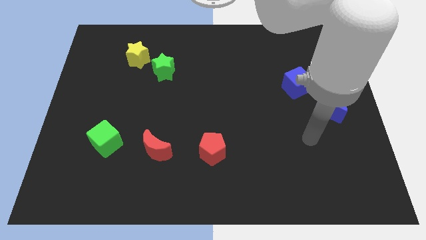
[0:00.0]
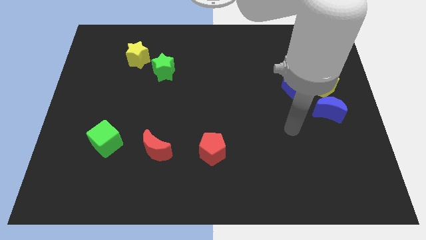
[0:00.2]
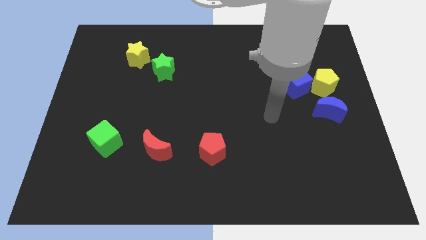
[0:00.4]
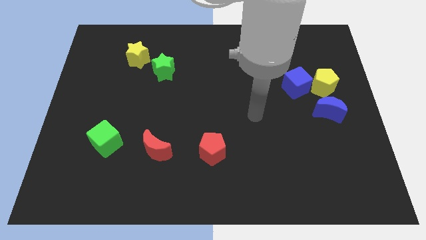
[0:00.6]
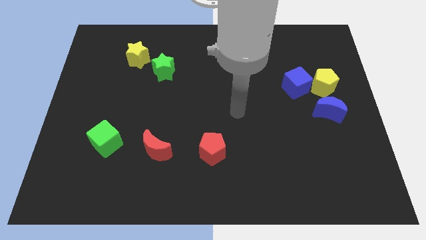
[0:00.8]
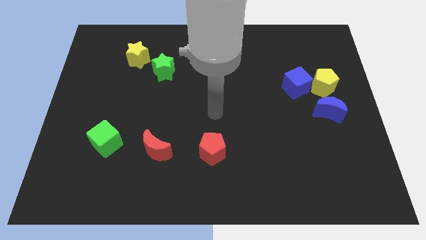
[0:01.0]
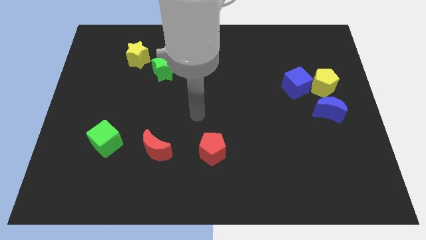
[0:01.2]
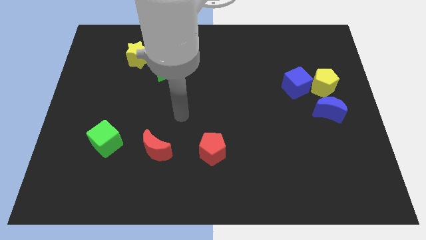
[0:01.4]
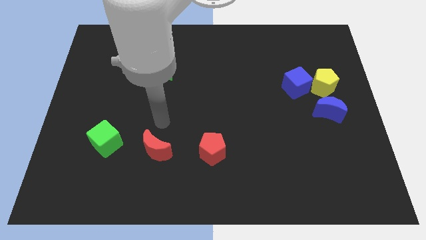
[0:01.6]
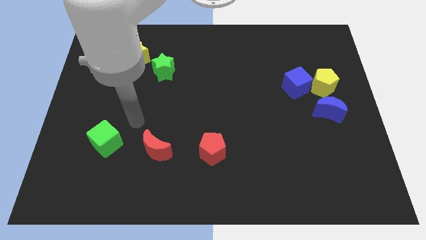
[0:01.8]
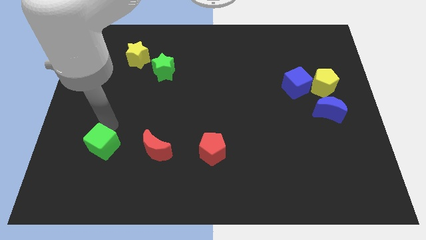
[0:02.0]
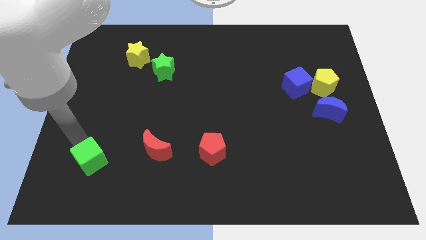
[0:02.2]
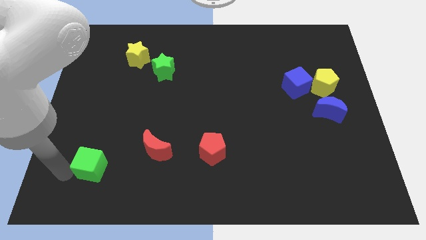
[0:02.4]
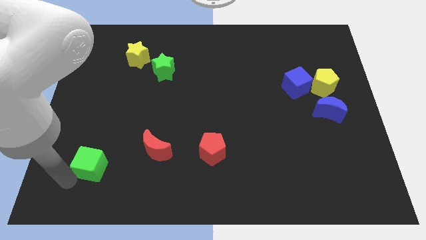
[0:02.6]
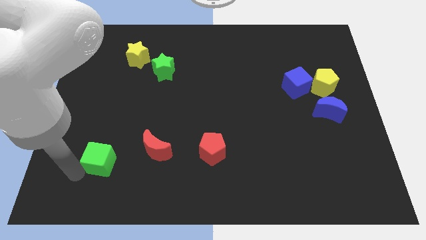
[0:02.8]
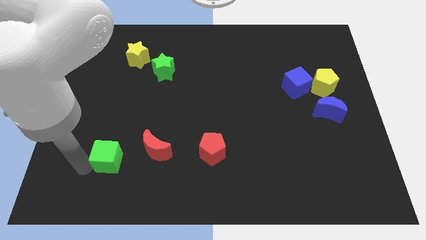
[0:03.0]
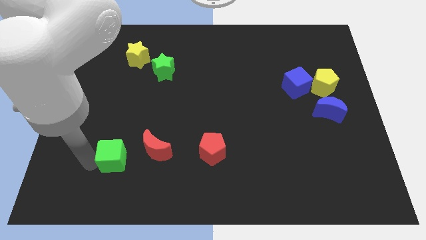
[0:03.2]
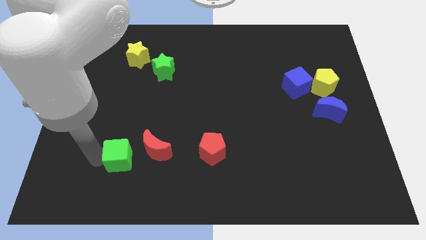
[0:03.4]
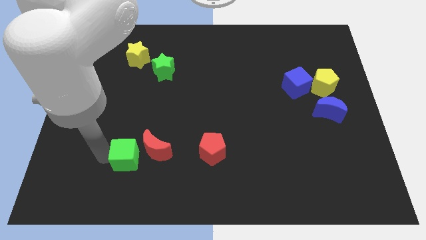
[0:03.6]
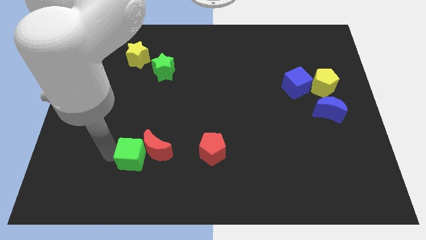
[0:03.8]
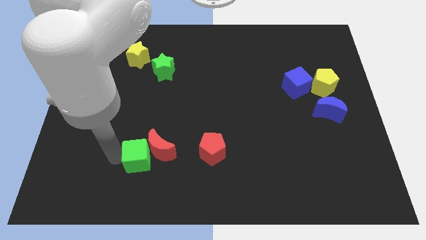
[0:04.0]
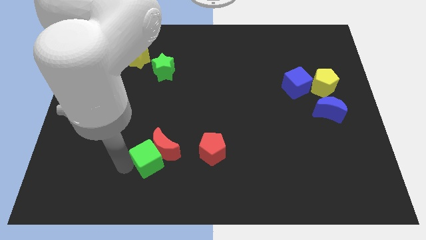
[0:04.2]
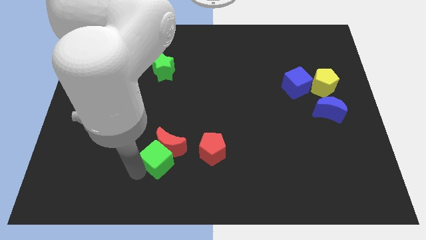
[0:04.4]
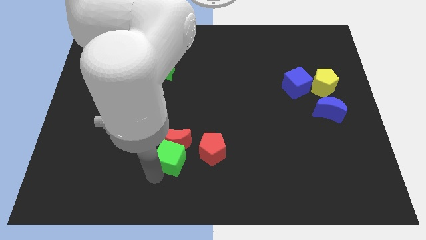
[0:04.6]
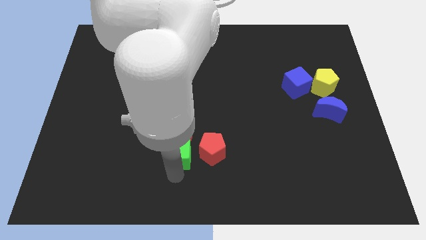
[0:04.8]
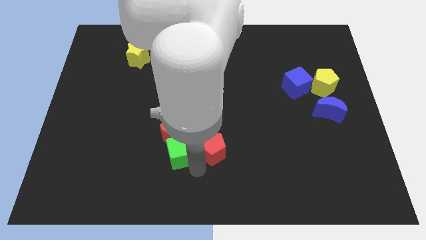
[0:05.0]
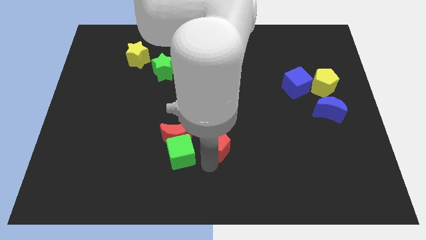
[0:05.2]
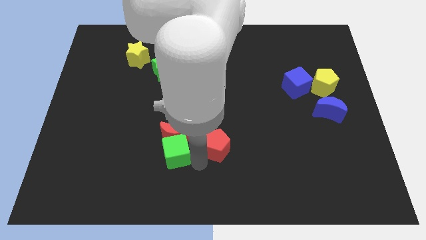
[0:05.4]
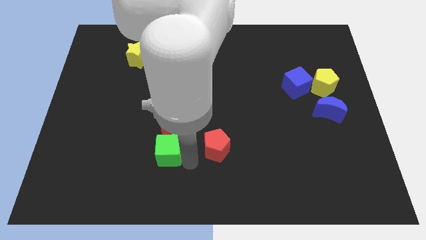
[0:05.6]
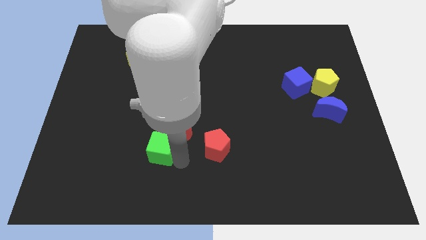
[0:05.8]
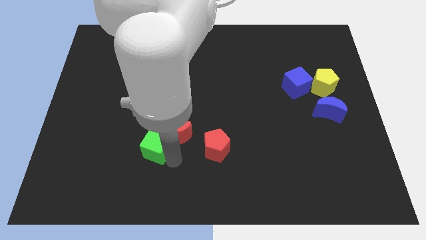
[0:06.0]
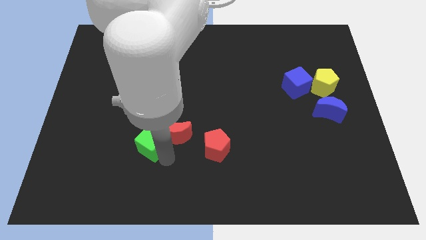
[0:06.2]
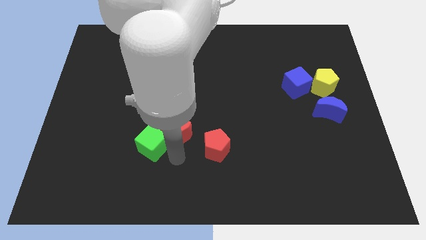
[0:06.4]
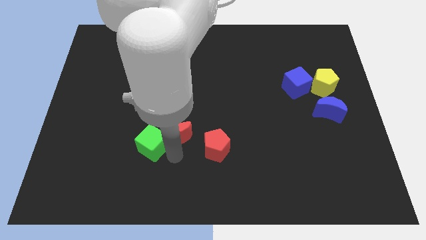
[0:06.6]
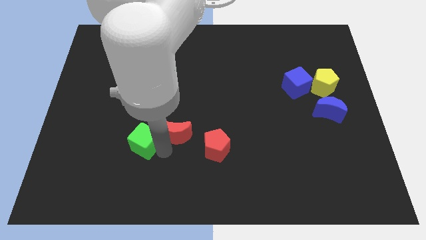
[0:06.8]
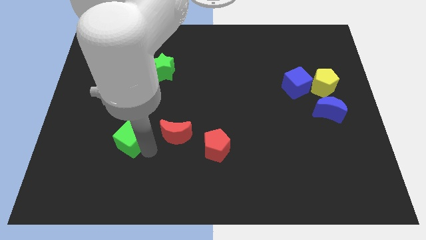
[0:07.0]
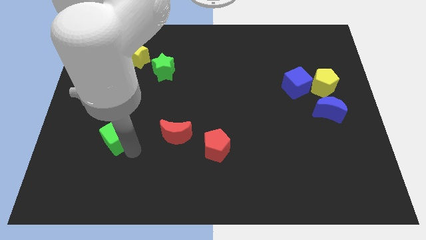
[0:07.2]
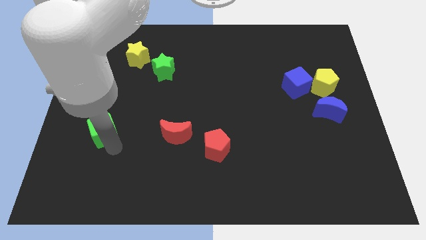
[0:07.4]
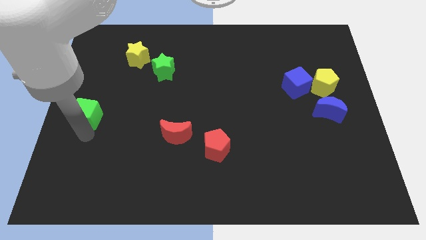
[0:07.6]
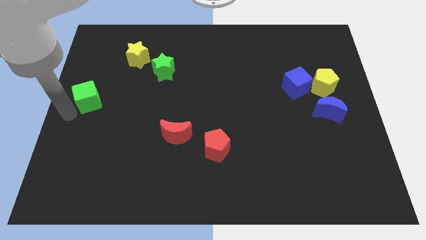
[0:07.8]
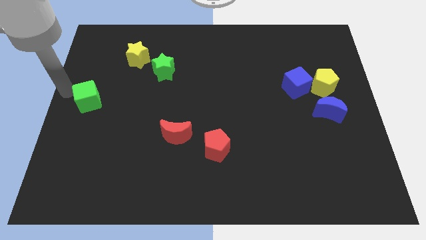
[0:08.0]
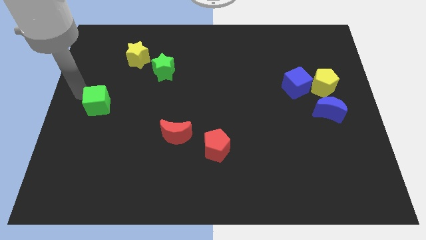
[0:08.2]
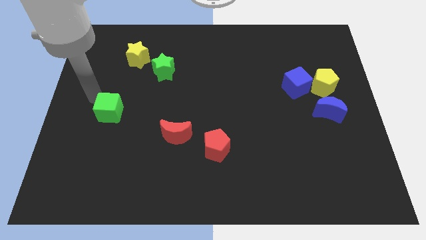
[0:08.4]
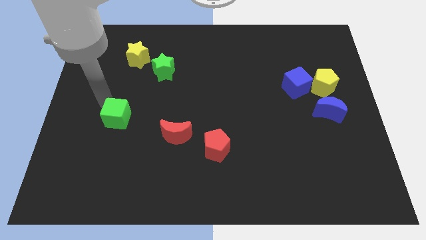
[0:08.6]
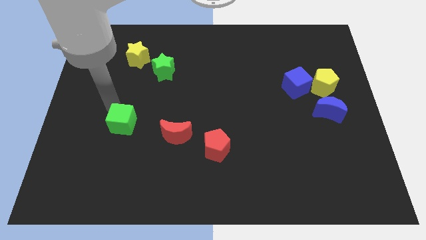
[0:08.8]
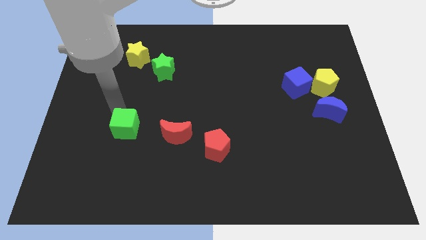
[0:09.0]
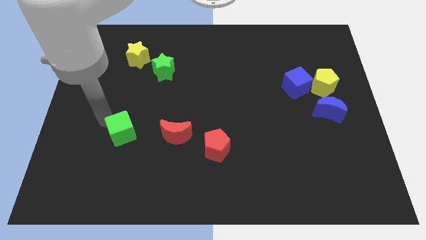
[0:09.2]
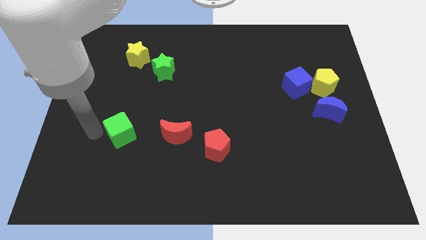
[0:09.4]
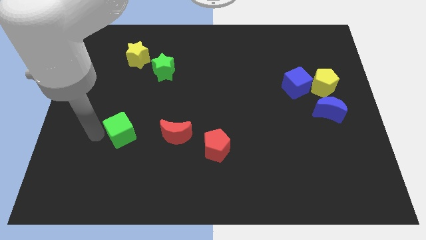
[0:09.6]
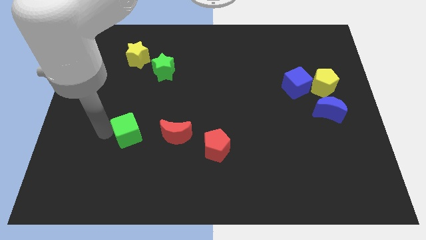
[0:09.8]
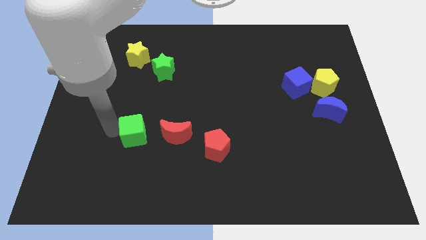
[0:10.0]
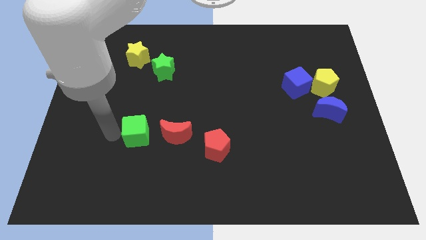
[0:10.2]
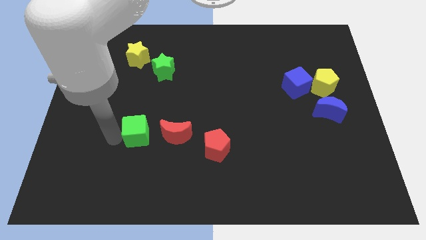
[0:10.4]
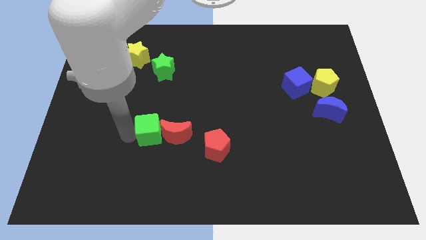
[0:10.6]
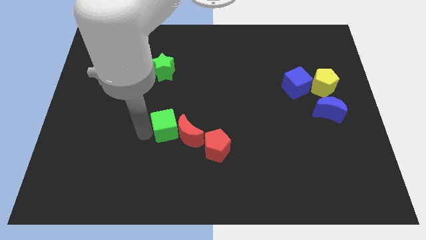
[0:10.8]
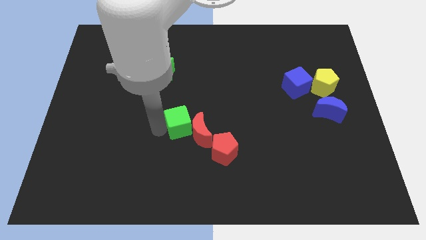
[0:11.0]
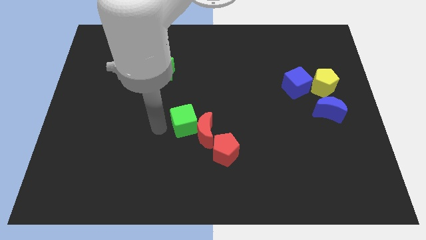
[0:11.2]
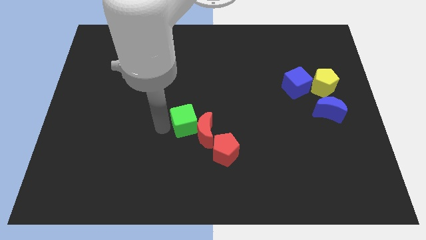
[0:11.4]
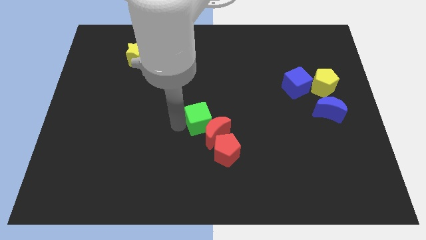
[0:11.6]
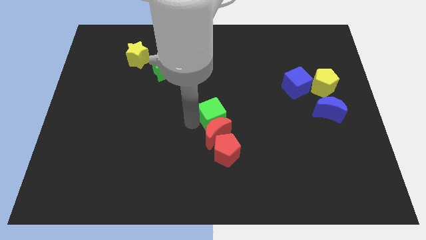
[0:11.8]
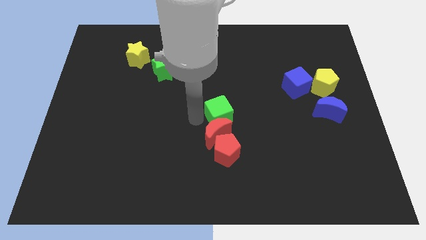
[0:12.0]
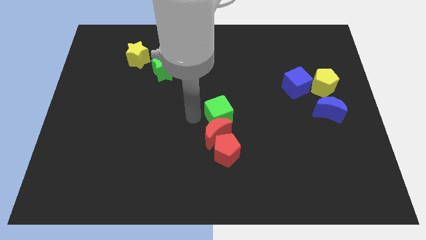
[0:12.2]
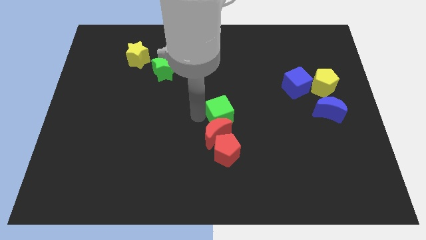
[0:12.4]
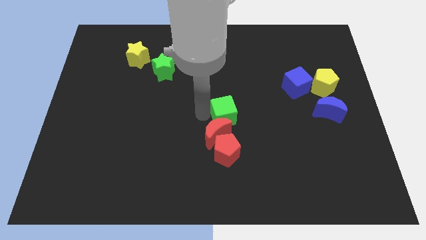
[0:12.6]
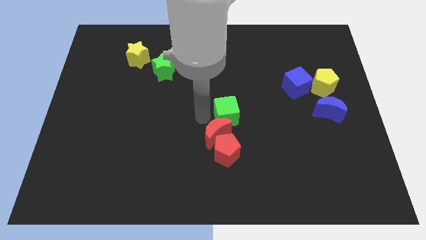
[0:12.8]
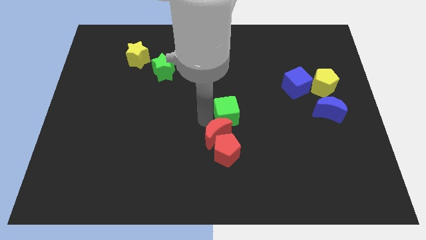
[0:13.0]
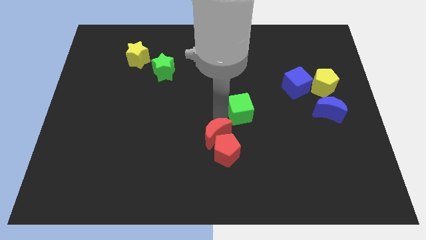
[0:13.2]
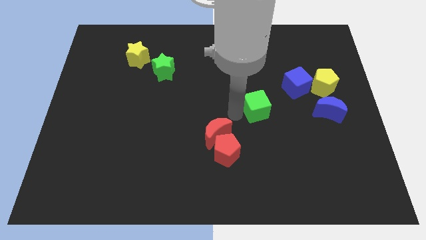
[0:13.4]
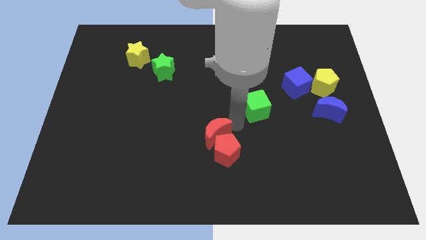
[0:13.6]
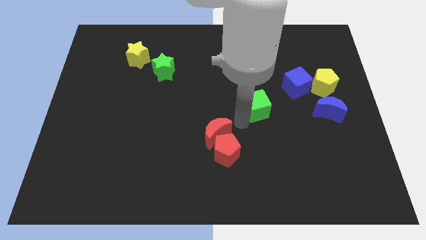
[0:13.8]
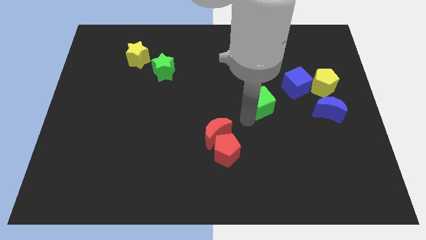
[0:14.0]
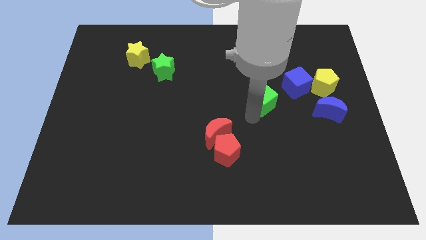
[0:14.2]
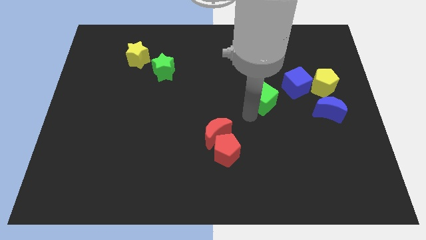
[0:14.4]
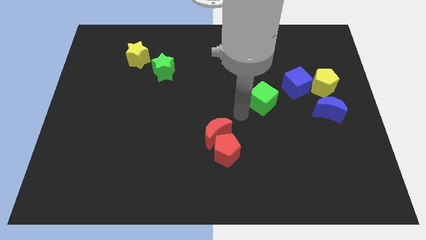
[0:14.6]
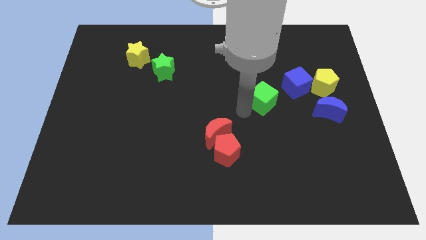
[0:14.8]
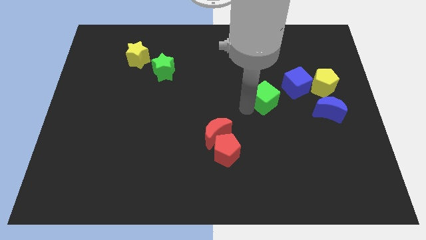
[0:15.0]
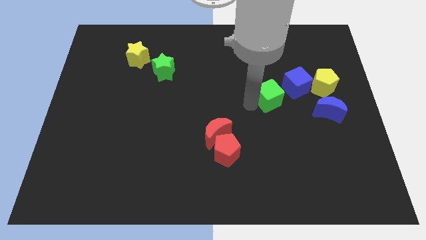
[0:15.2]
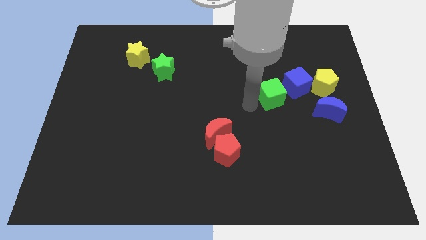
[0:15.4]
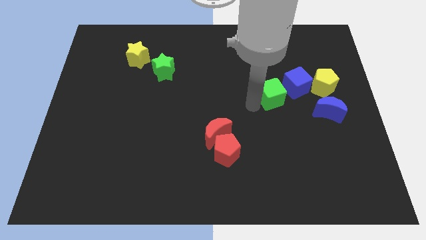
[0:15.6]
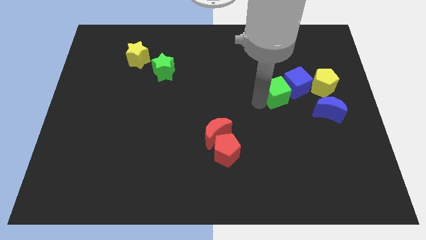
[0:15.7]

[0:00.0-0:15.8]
push the green cube to the blue cube
